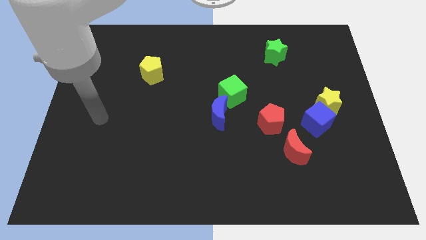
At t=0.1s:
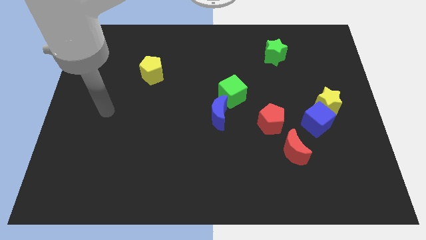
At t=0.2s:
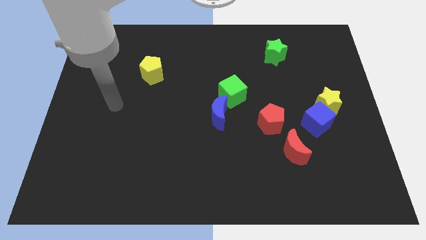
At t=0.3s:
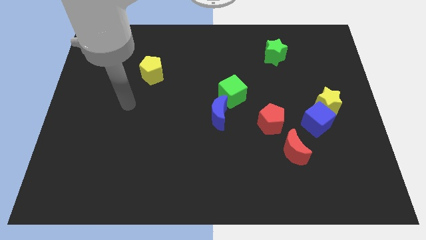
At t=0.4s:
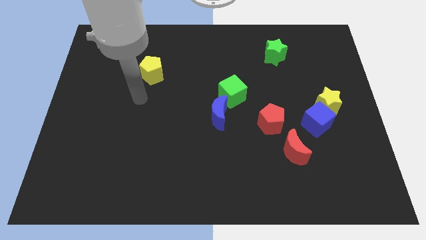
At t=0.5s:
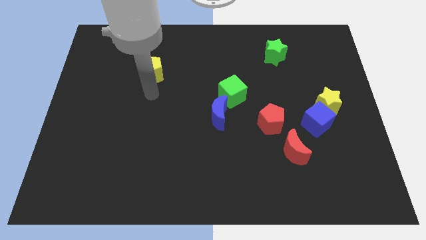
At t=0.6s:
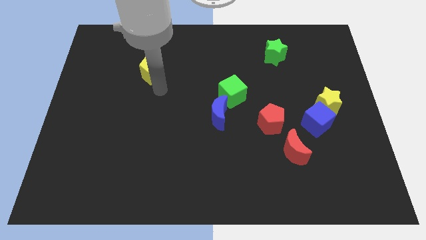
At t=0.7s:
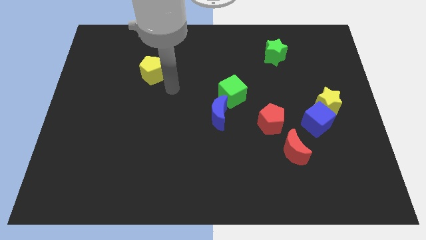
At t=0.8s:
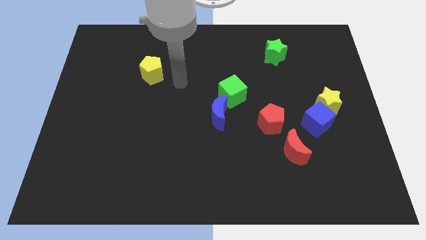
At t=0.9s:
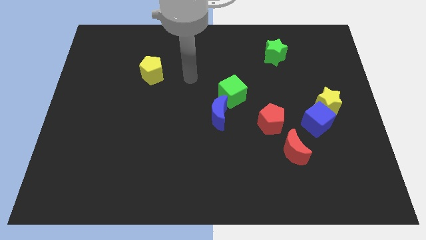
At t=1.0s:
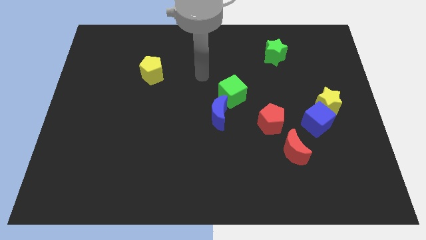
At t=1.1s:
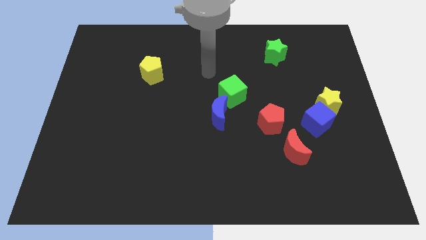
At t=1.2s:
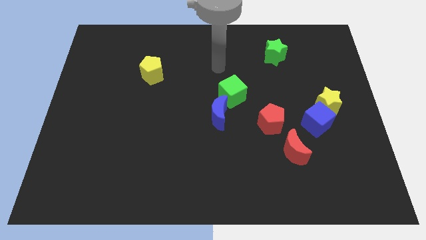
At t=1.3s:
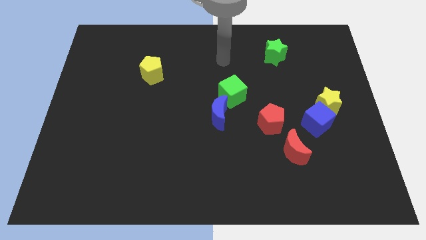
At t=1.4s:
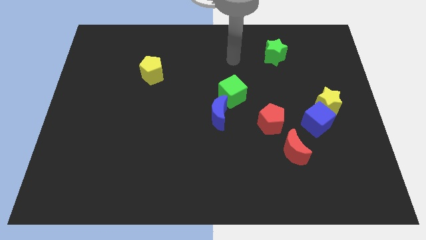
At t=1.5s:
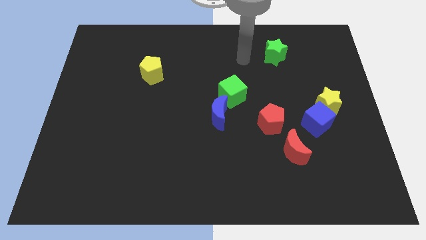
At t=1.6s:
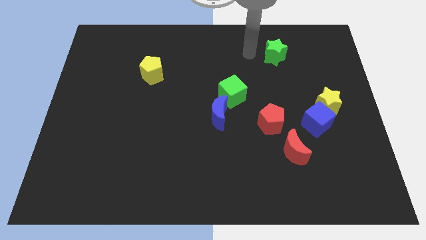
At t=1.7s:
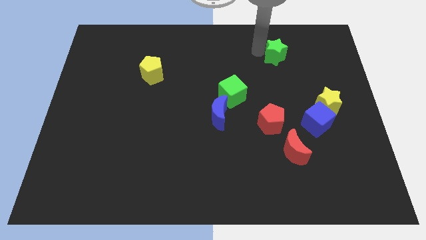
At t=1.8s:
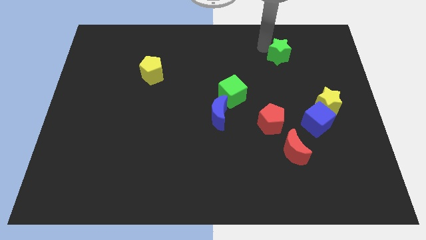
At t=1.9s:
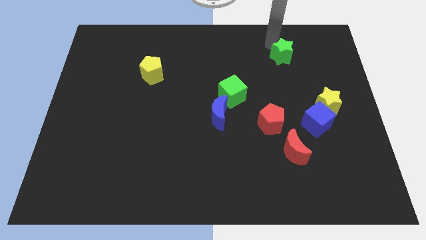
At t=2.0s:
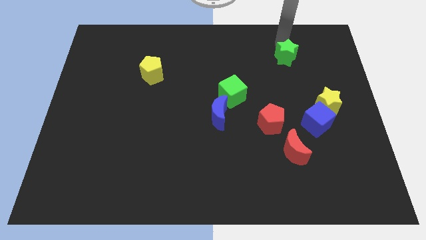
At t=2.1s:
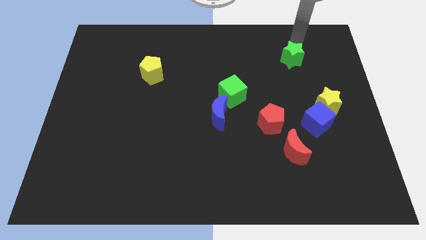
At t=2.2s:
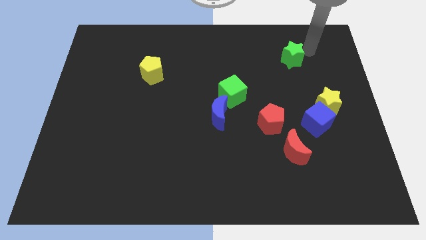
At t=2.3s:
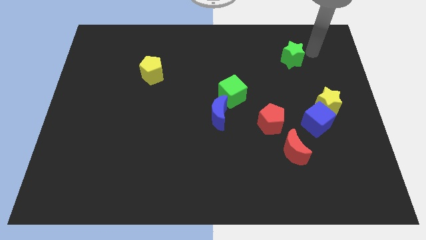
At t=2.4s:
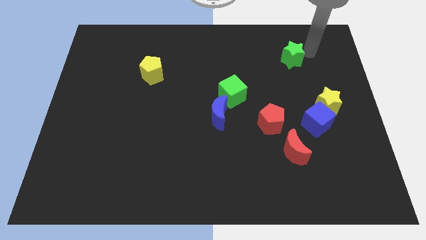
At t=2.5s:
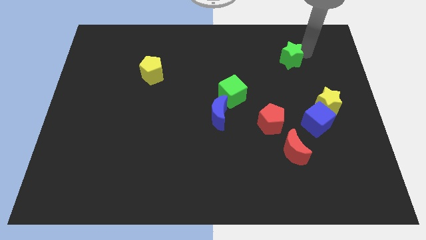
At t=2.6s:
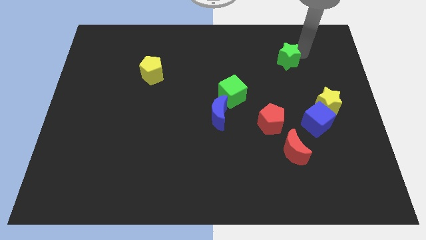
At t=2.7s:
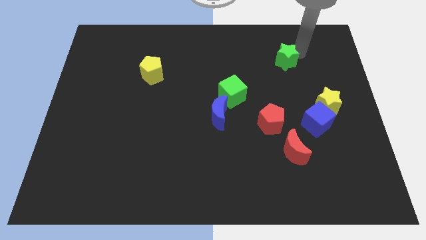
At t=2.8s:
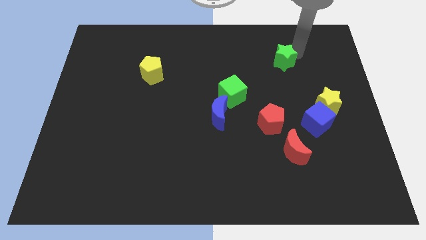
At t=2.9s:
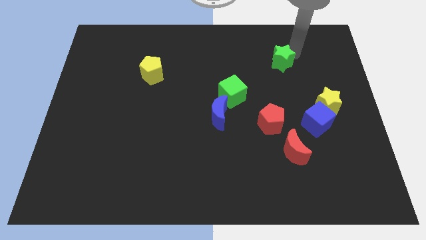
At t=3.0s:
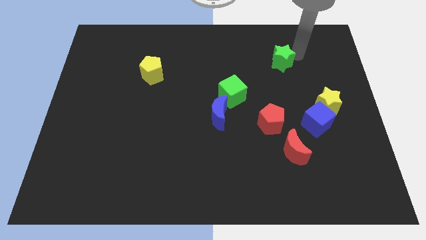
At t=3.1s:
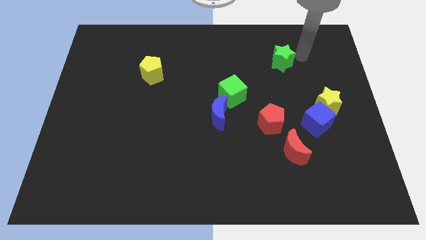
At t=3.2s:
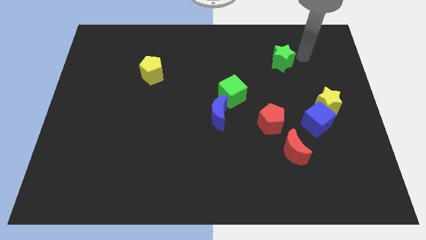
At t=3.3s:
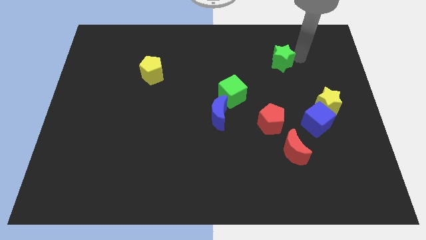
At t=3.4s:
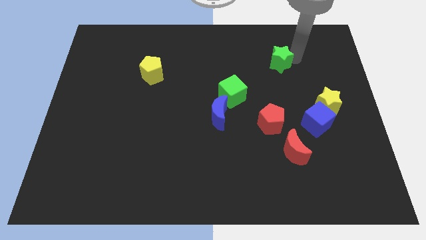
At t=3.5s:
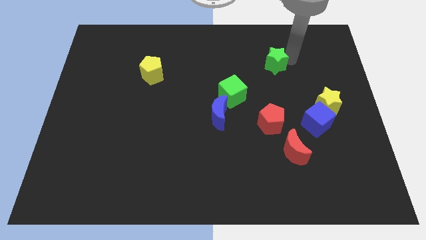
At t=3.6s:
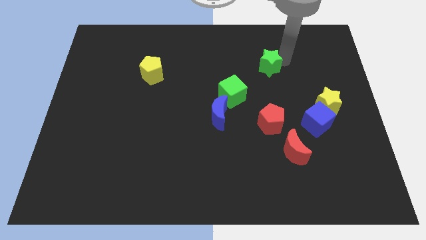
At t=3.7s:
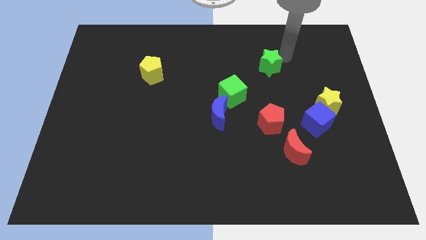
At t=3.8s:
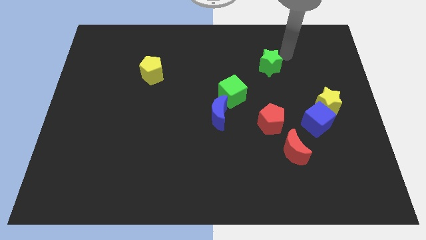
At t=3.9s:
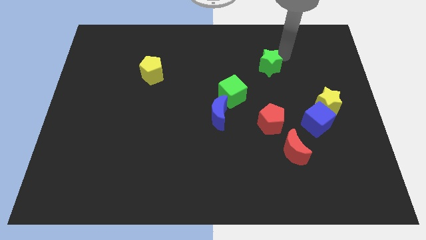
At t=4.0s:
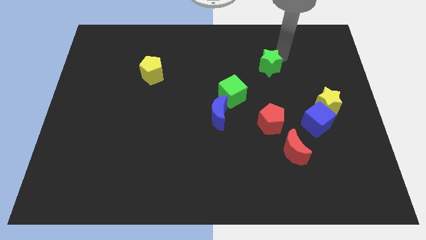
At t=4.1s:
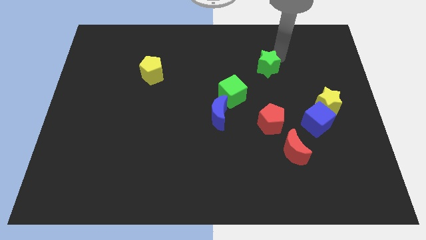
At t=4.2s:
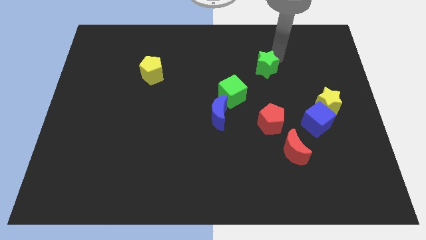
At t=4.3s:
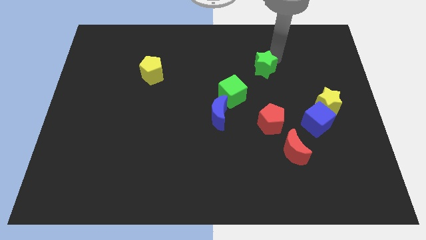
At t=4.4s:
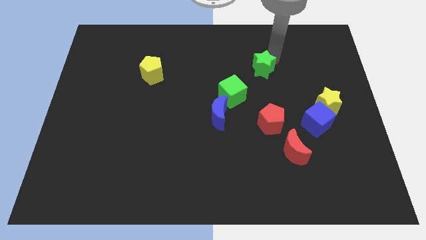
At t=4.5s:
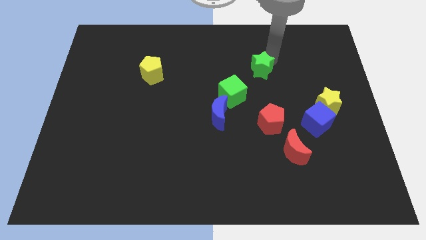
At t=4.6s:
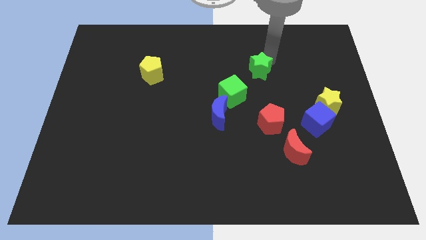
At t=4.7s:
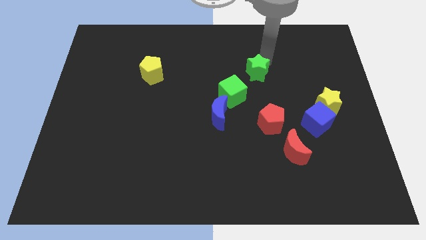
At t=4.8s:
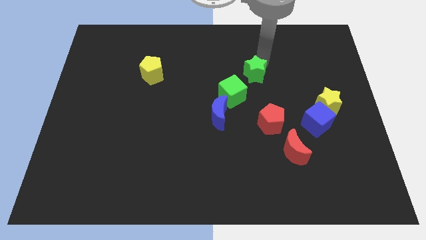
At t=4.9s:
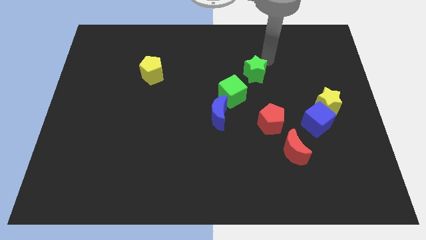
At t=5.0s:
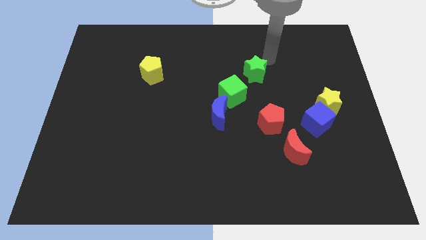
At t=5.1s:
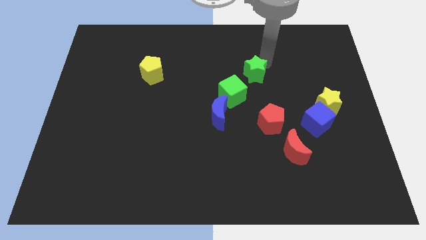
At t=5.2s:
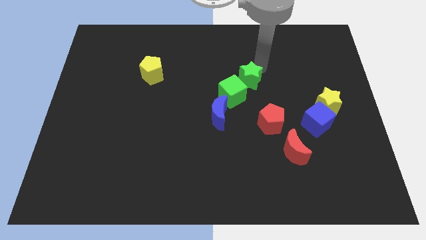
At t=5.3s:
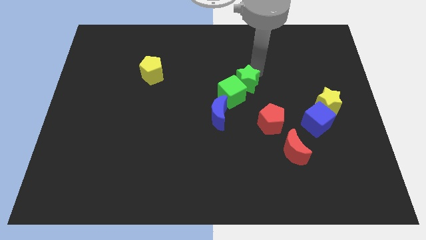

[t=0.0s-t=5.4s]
put the green star towards the green cube

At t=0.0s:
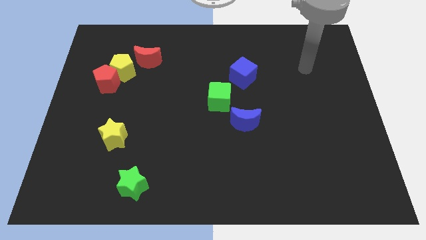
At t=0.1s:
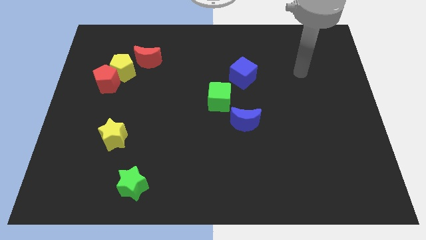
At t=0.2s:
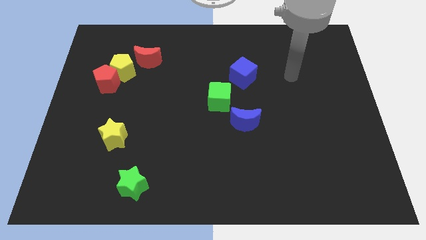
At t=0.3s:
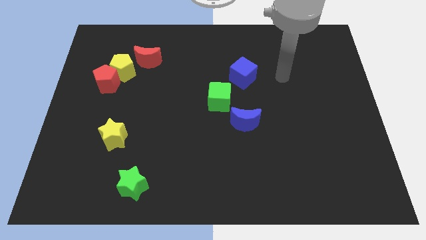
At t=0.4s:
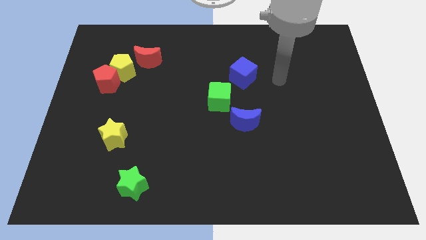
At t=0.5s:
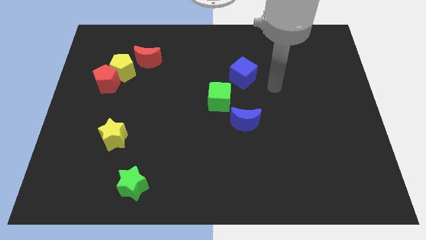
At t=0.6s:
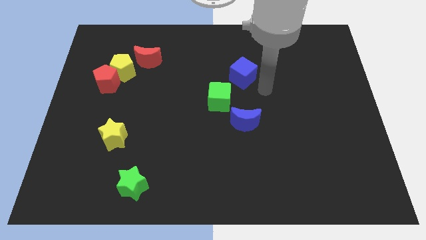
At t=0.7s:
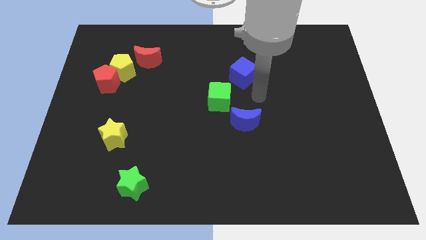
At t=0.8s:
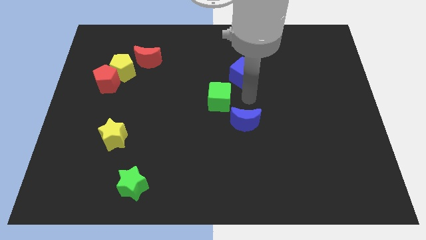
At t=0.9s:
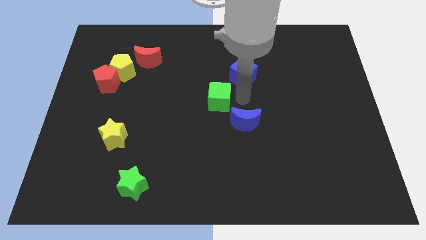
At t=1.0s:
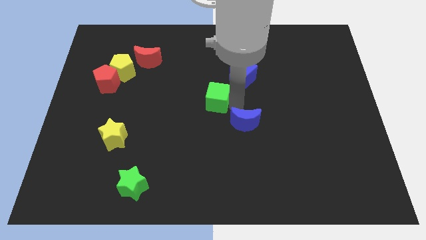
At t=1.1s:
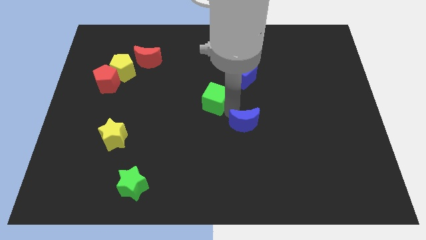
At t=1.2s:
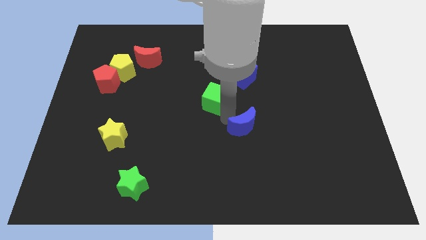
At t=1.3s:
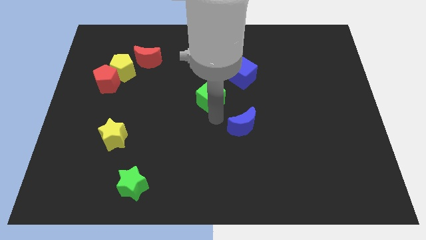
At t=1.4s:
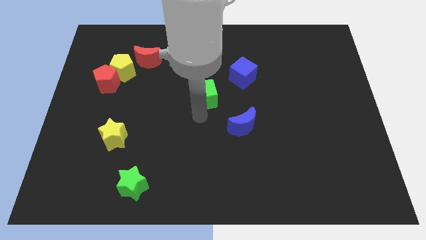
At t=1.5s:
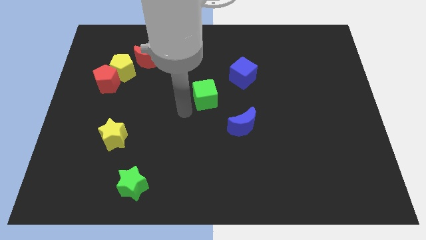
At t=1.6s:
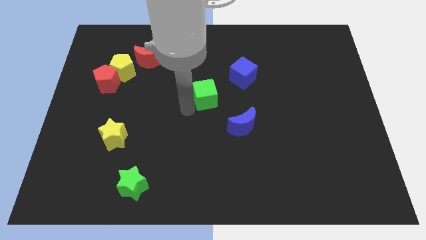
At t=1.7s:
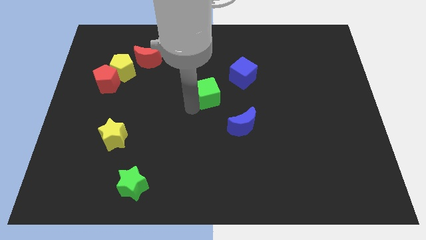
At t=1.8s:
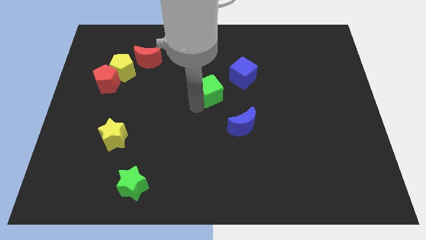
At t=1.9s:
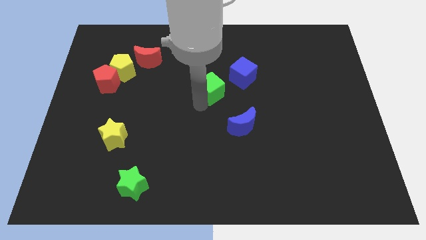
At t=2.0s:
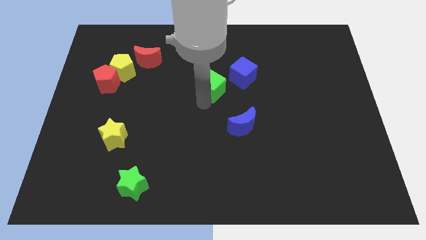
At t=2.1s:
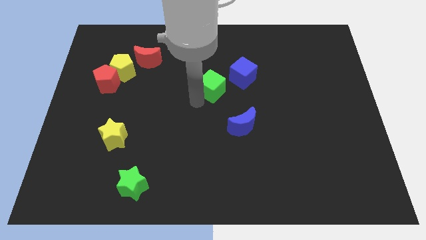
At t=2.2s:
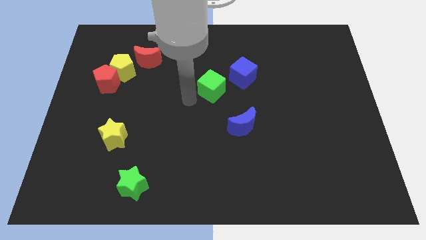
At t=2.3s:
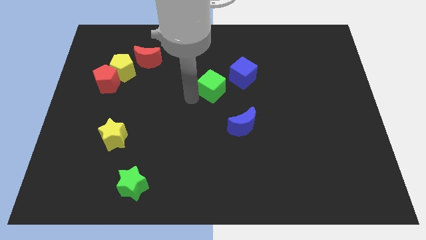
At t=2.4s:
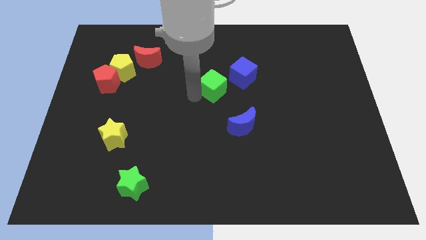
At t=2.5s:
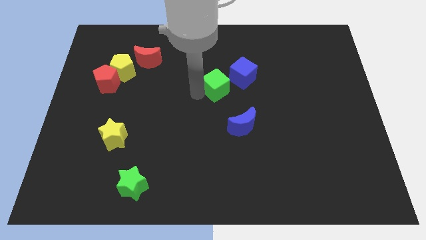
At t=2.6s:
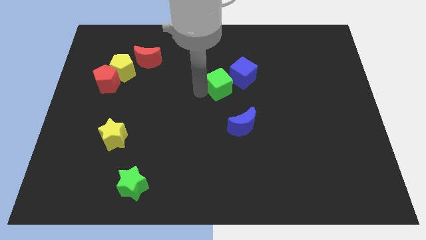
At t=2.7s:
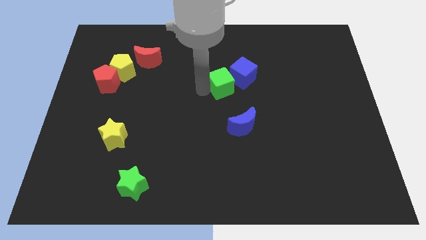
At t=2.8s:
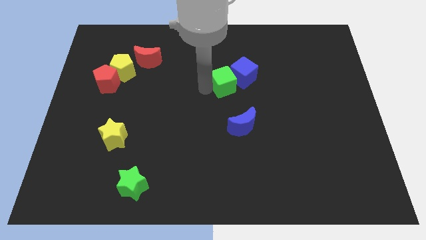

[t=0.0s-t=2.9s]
put the green cube to the blue cube
